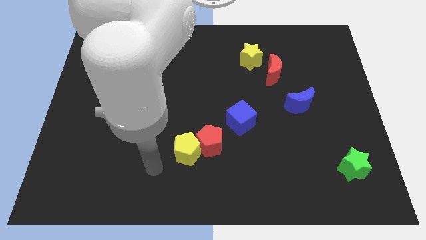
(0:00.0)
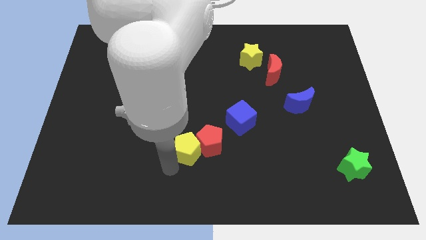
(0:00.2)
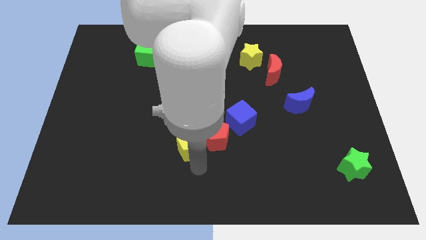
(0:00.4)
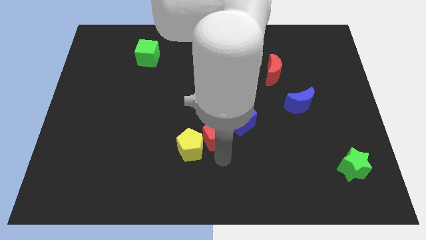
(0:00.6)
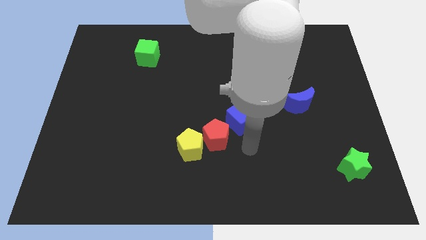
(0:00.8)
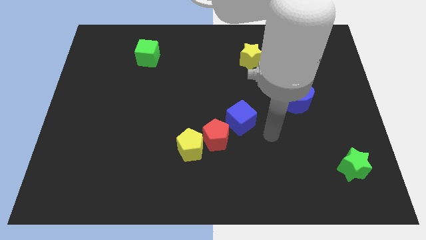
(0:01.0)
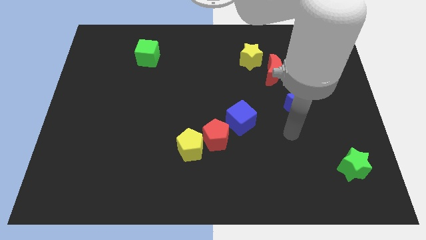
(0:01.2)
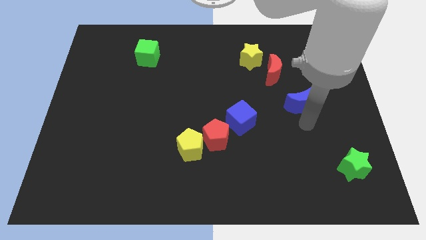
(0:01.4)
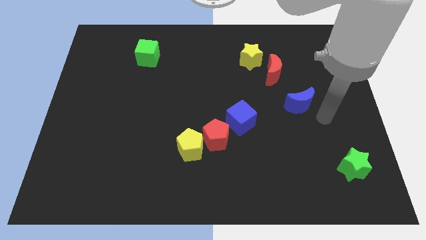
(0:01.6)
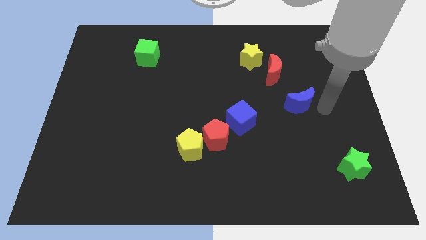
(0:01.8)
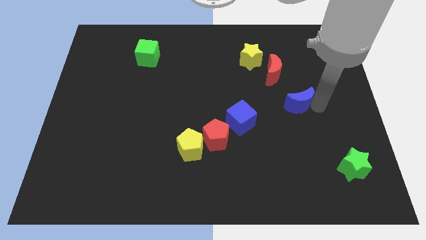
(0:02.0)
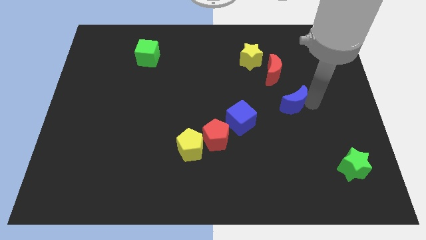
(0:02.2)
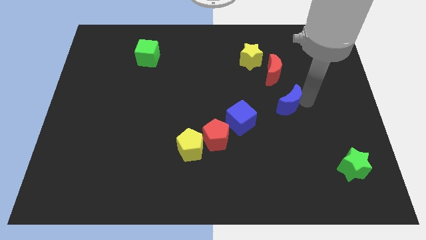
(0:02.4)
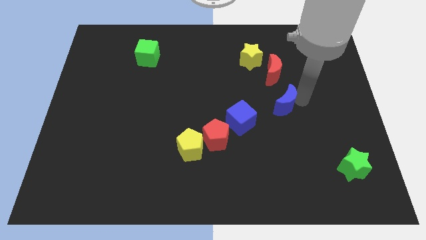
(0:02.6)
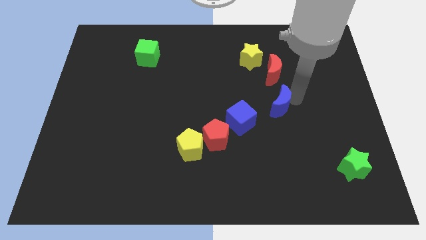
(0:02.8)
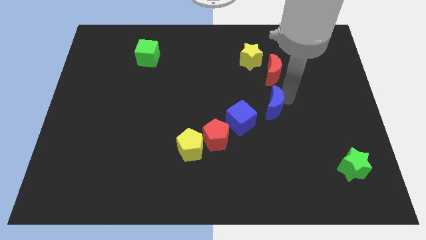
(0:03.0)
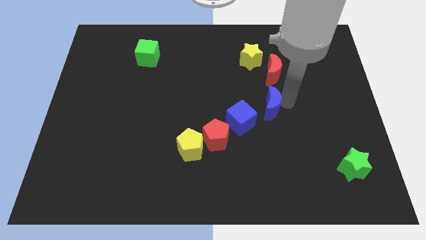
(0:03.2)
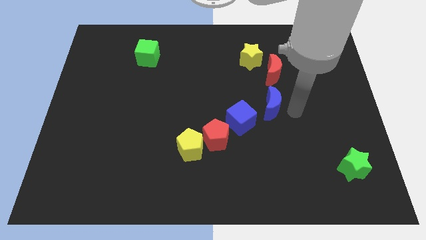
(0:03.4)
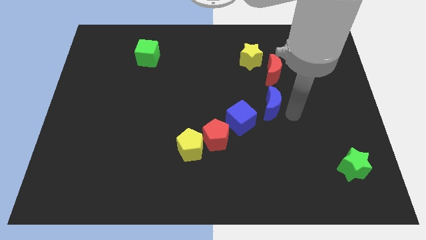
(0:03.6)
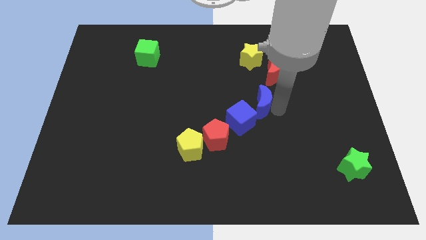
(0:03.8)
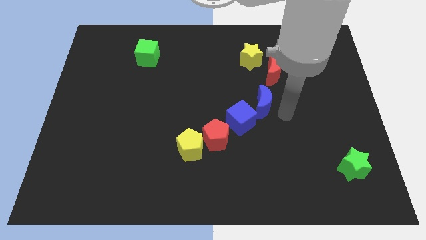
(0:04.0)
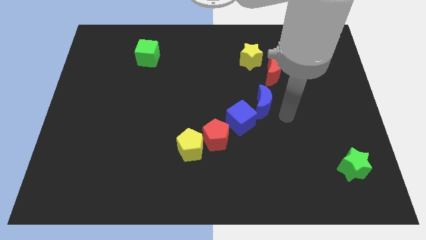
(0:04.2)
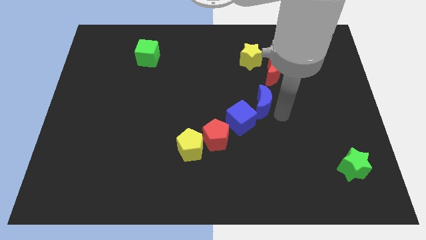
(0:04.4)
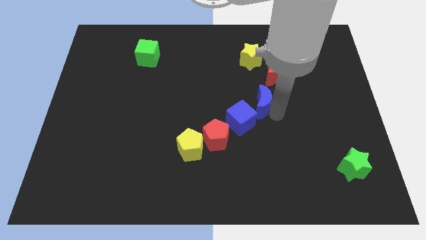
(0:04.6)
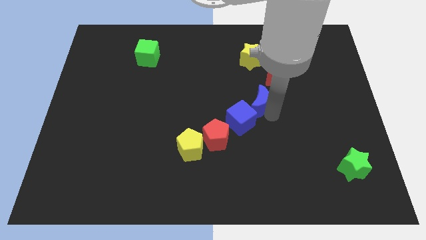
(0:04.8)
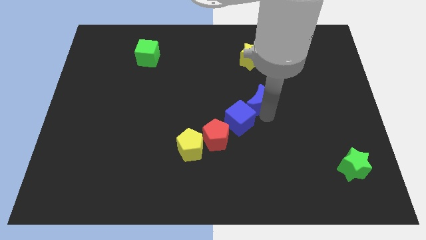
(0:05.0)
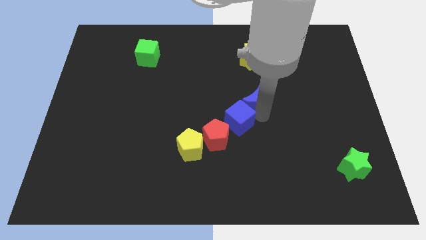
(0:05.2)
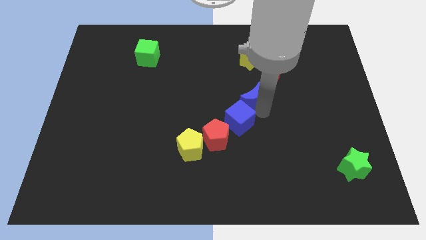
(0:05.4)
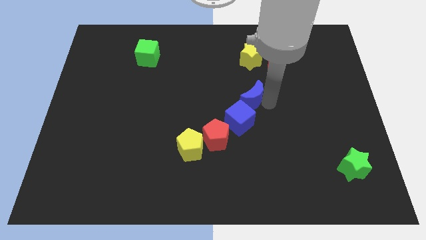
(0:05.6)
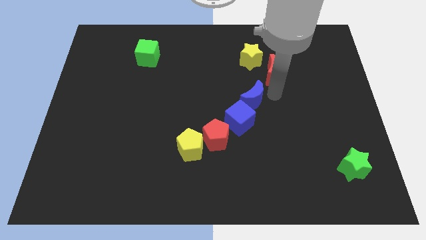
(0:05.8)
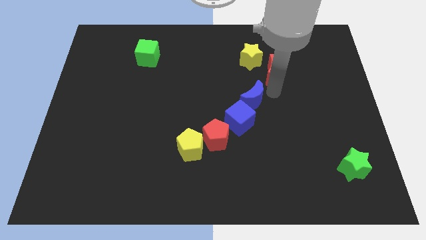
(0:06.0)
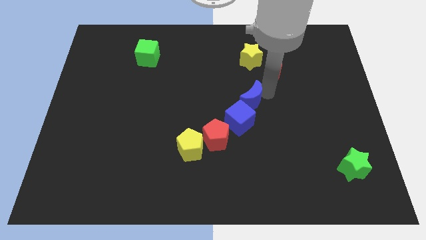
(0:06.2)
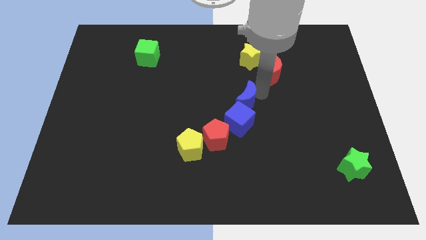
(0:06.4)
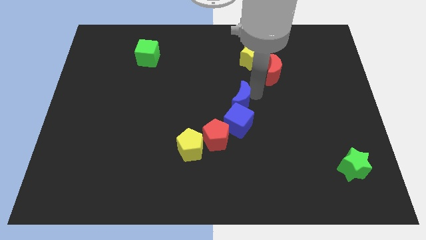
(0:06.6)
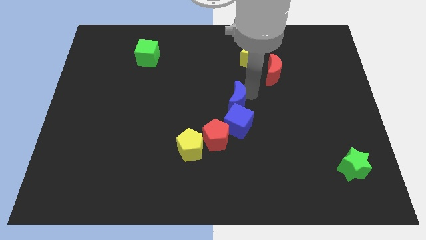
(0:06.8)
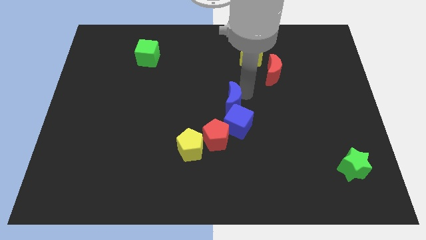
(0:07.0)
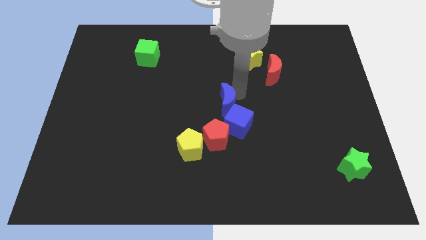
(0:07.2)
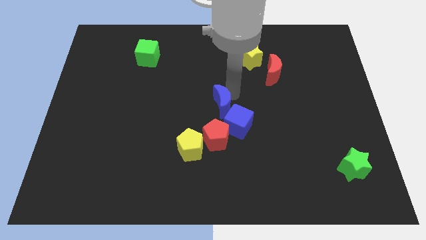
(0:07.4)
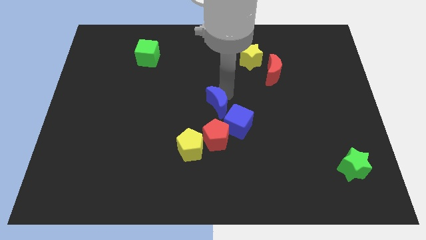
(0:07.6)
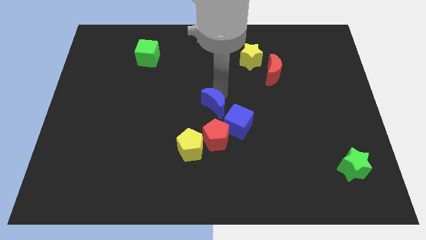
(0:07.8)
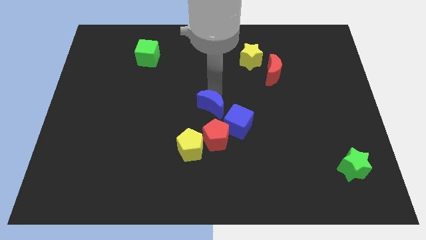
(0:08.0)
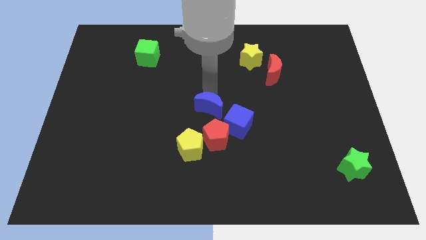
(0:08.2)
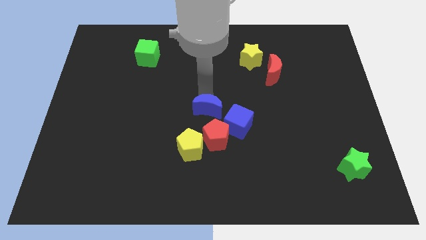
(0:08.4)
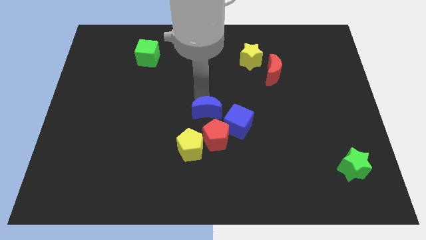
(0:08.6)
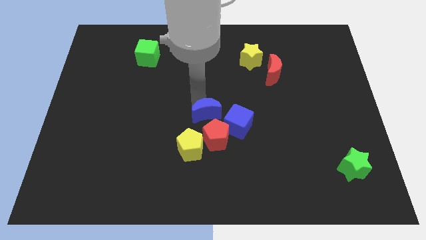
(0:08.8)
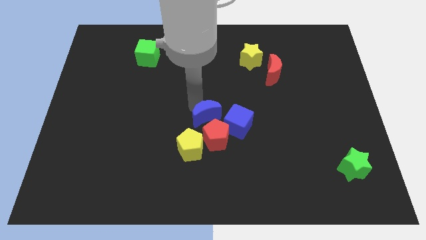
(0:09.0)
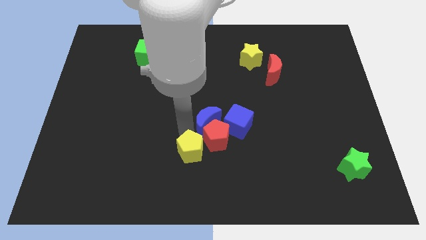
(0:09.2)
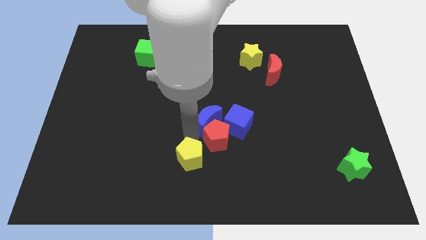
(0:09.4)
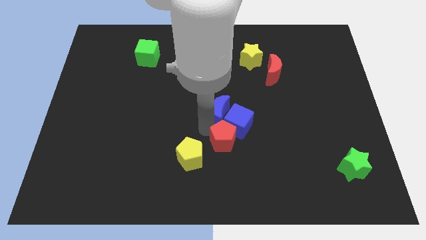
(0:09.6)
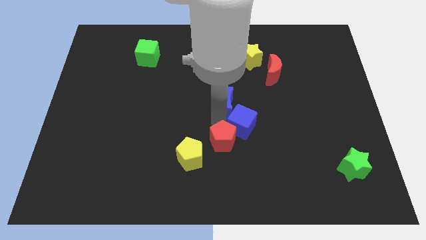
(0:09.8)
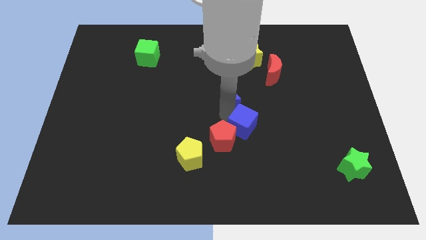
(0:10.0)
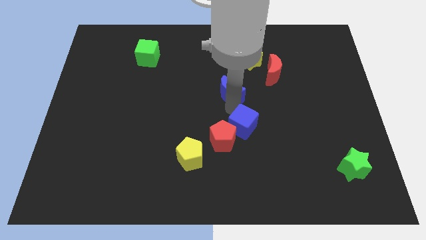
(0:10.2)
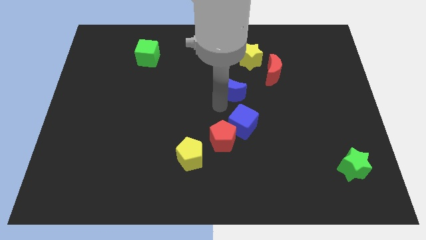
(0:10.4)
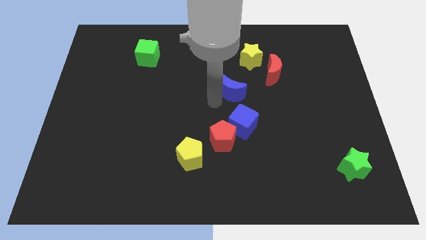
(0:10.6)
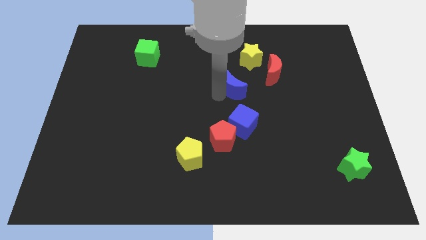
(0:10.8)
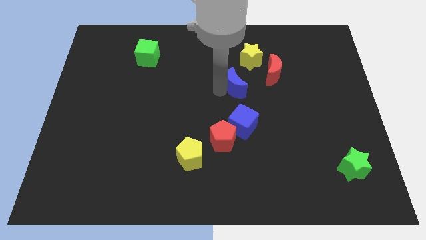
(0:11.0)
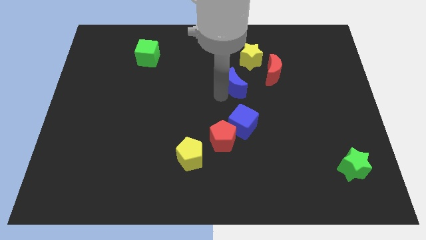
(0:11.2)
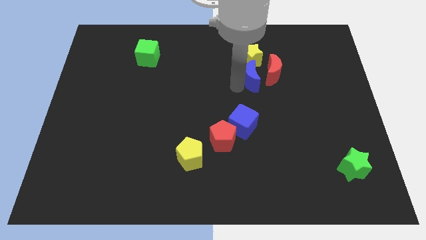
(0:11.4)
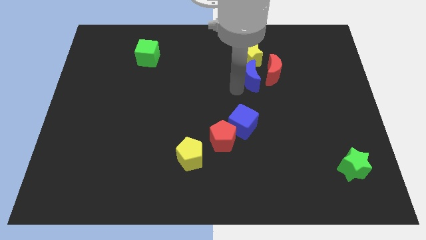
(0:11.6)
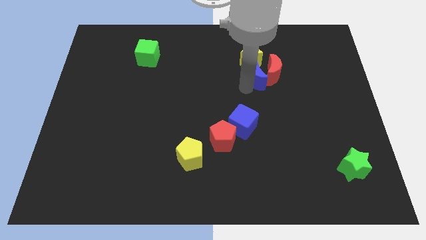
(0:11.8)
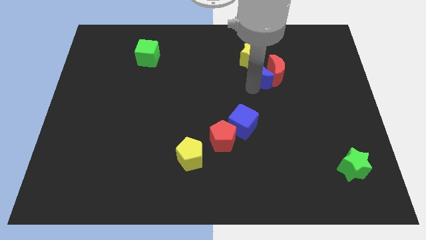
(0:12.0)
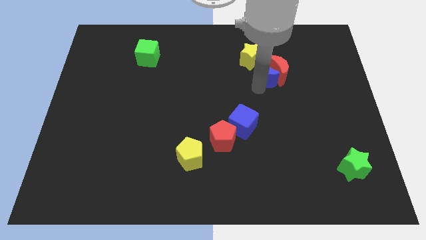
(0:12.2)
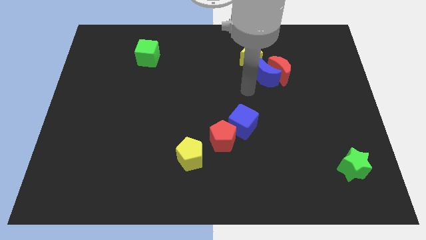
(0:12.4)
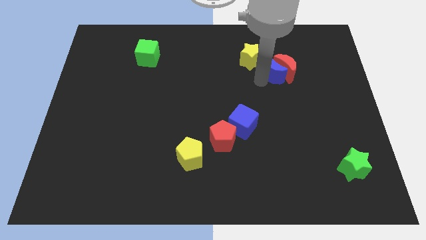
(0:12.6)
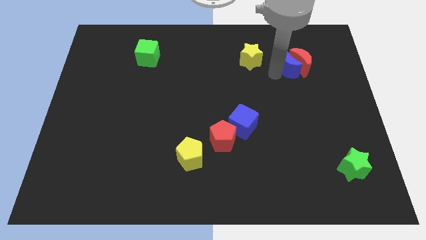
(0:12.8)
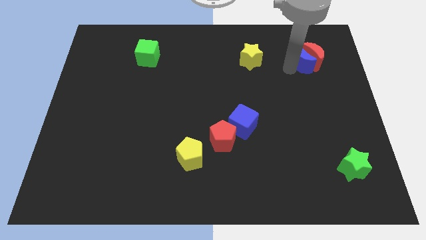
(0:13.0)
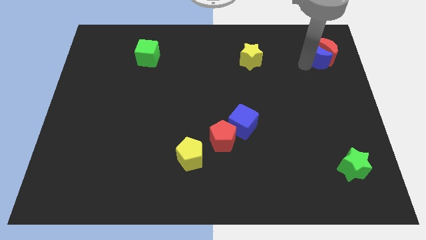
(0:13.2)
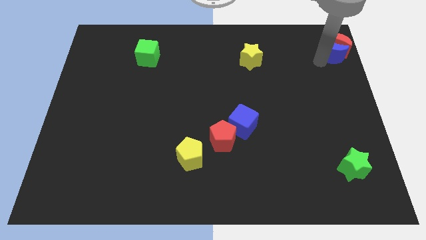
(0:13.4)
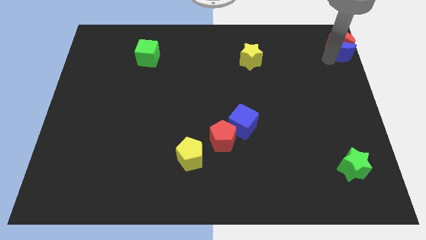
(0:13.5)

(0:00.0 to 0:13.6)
push the blue moon to the top right corner
